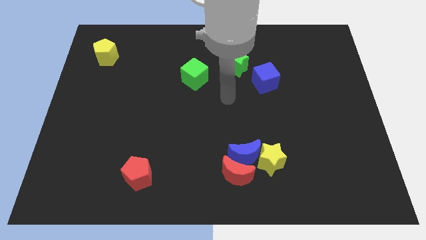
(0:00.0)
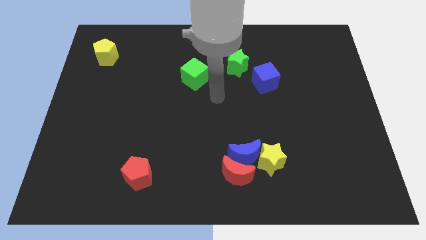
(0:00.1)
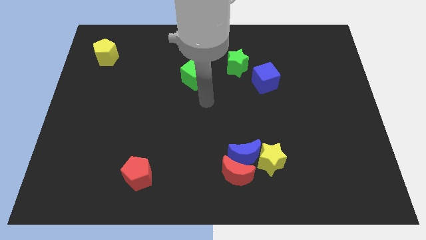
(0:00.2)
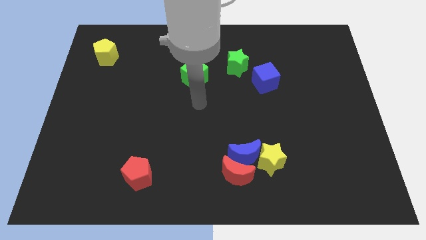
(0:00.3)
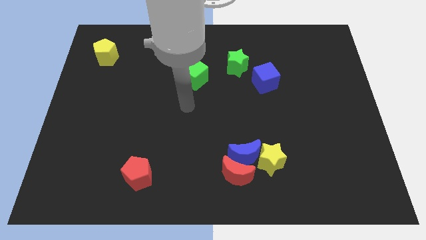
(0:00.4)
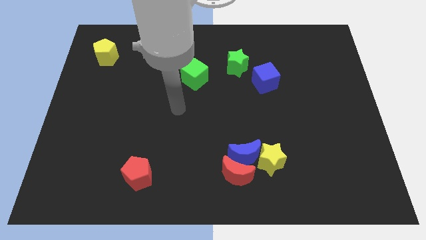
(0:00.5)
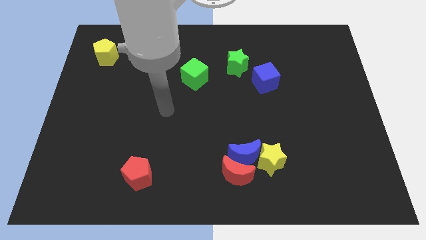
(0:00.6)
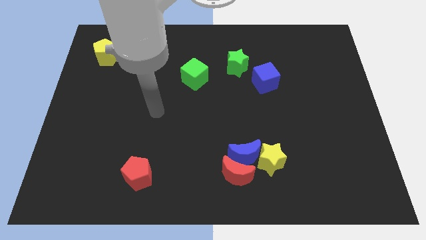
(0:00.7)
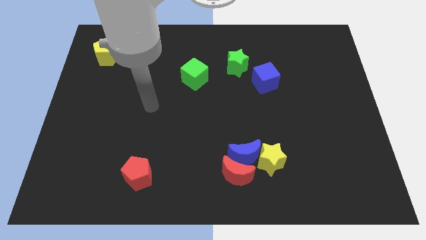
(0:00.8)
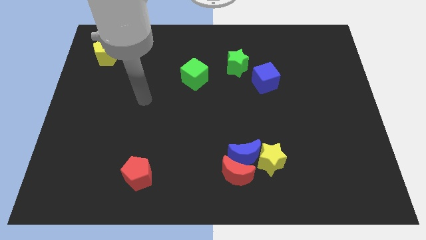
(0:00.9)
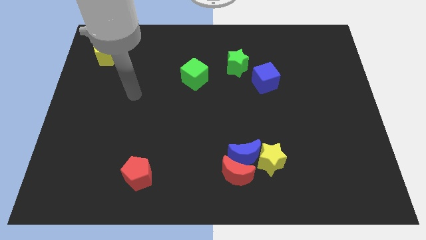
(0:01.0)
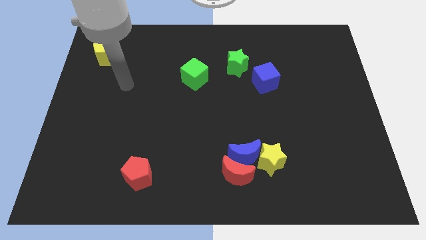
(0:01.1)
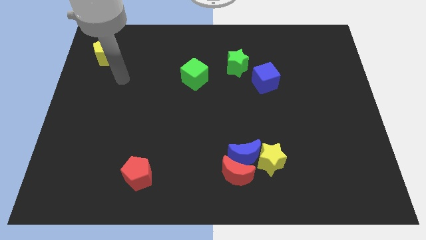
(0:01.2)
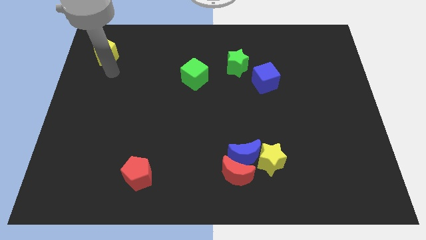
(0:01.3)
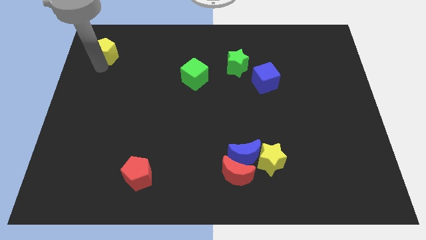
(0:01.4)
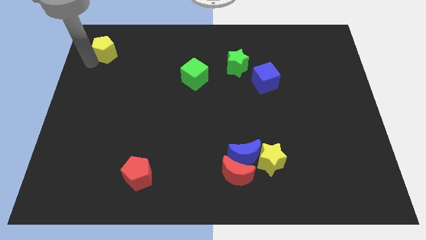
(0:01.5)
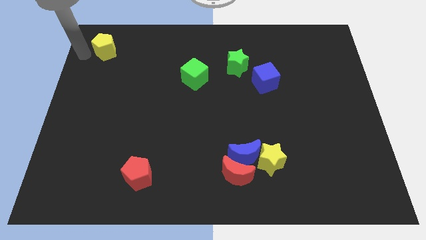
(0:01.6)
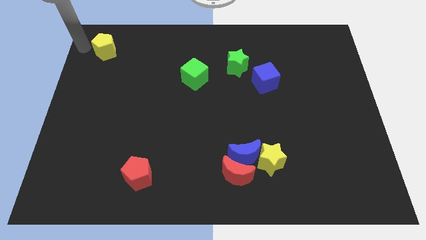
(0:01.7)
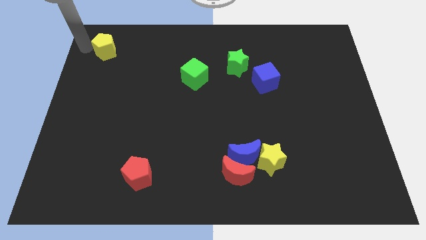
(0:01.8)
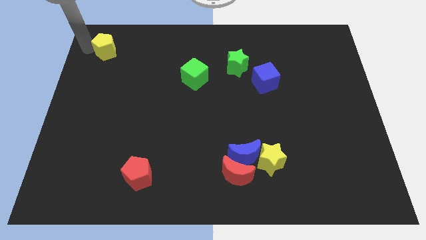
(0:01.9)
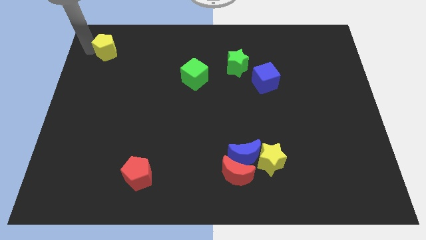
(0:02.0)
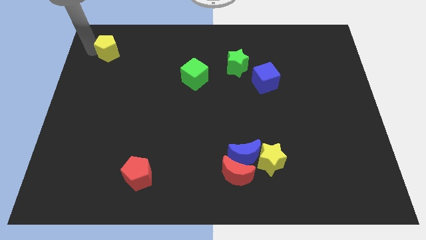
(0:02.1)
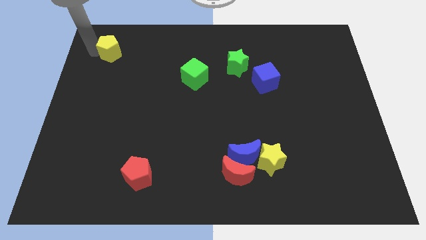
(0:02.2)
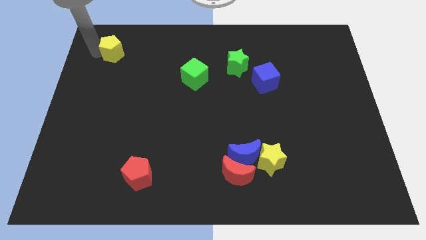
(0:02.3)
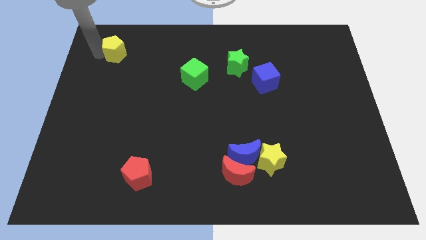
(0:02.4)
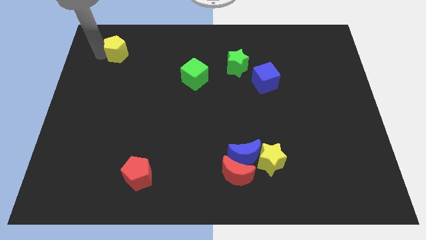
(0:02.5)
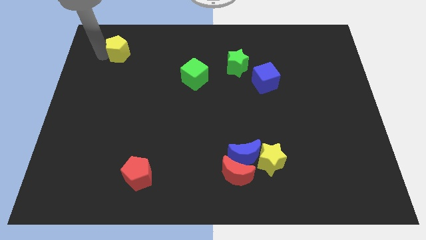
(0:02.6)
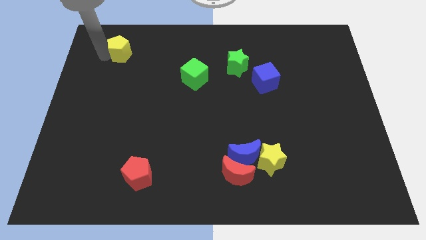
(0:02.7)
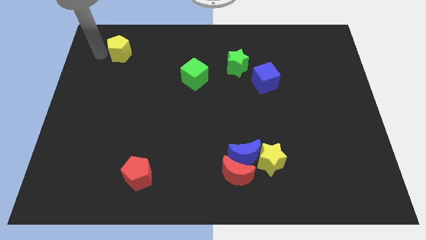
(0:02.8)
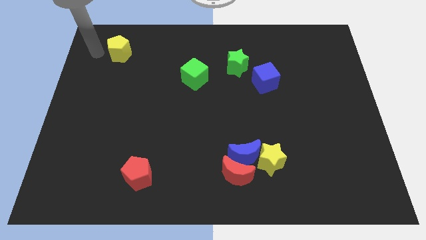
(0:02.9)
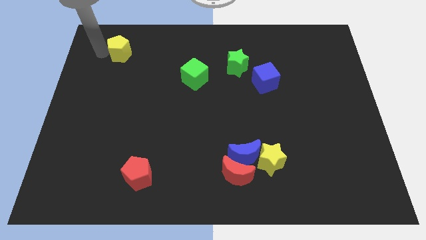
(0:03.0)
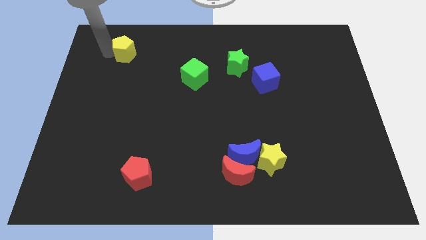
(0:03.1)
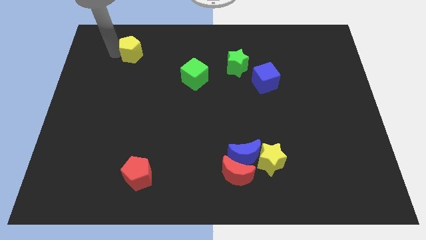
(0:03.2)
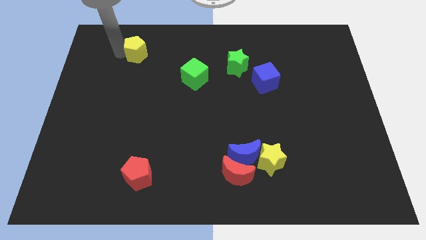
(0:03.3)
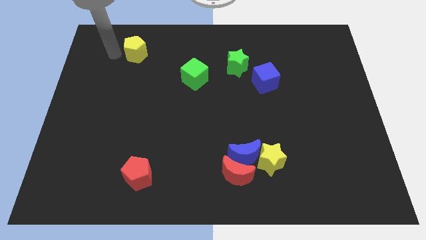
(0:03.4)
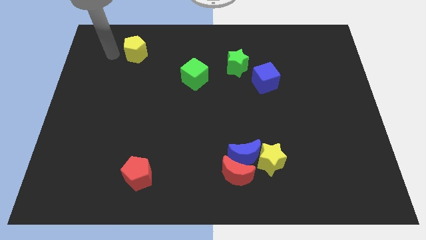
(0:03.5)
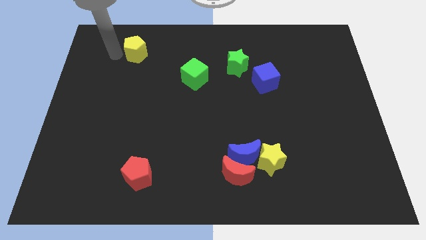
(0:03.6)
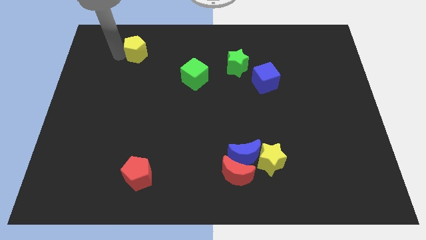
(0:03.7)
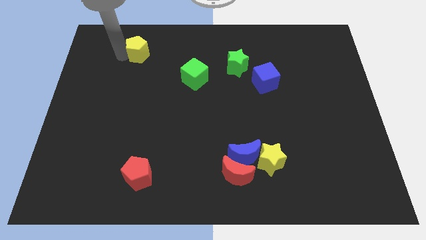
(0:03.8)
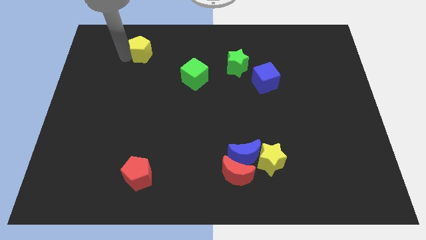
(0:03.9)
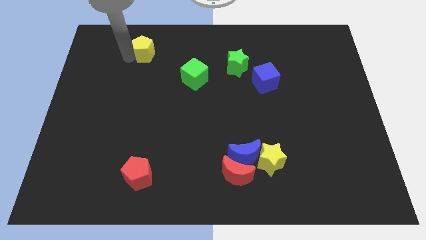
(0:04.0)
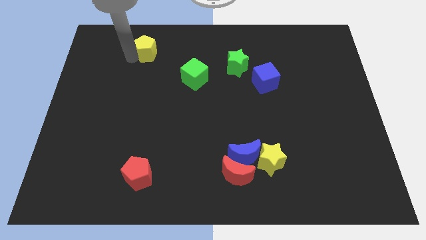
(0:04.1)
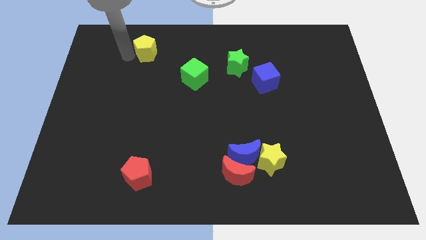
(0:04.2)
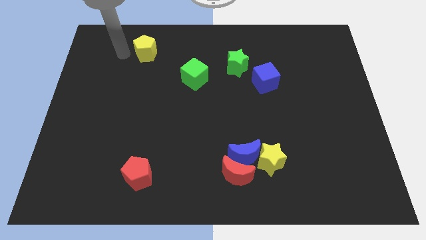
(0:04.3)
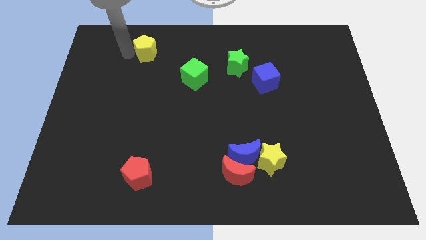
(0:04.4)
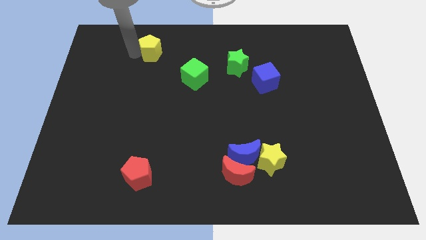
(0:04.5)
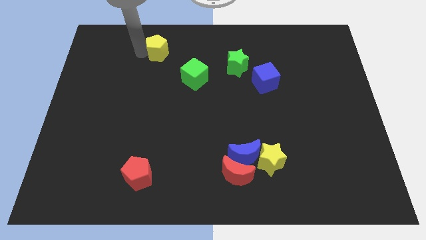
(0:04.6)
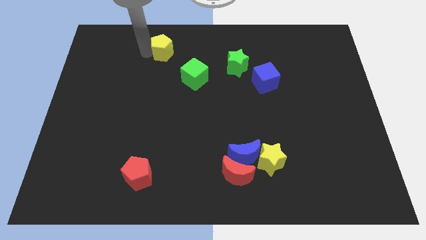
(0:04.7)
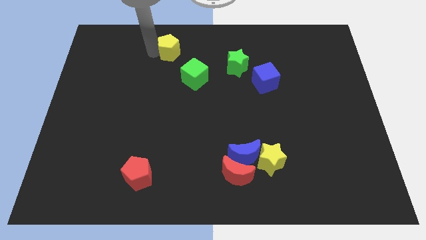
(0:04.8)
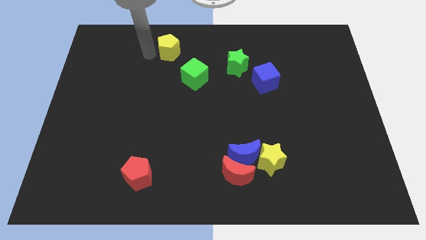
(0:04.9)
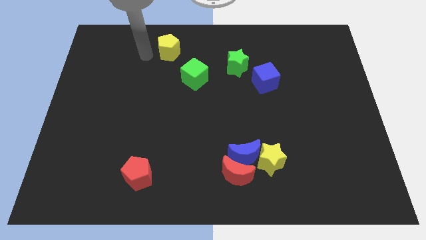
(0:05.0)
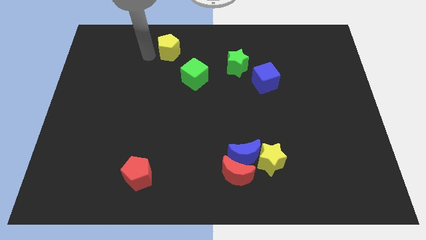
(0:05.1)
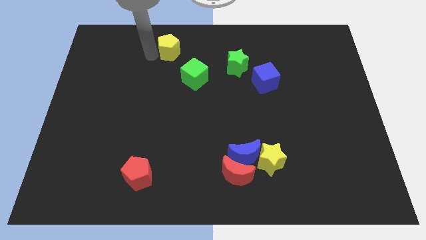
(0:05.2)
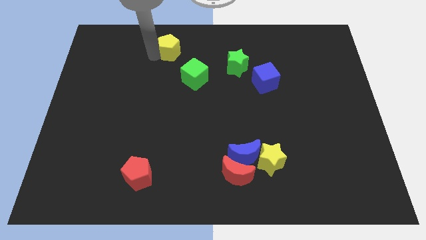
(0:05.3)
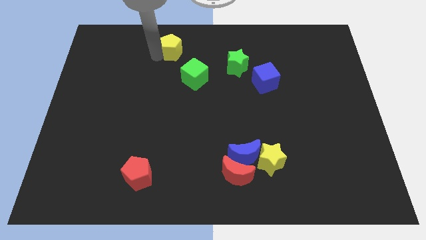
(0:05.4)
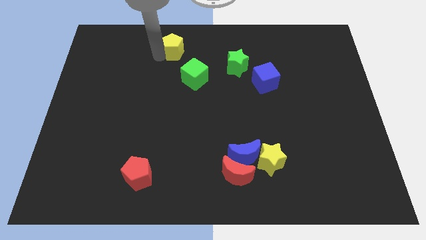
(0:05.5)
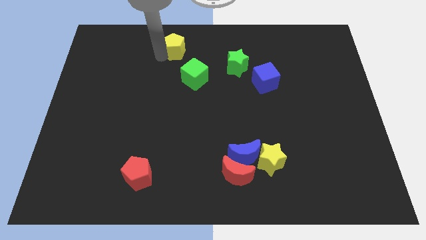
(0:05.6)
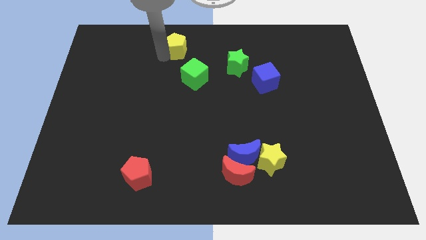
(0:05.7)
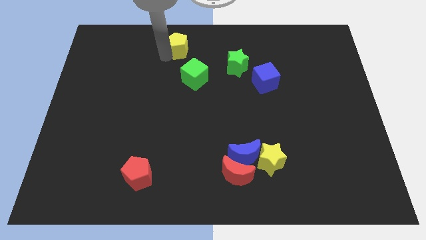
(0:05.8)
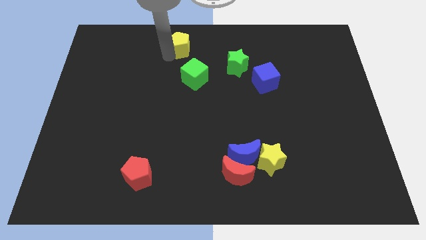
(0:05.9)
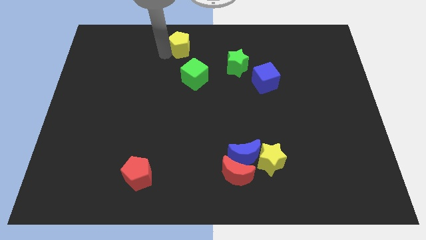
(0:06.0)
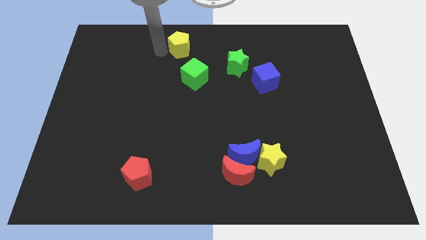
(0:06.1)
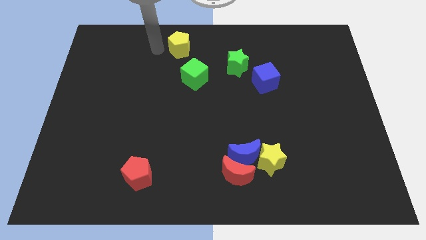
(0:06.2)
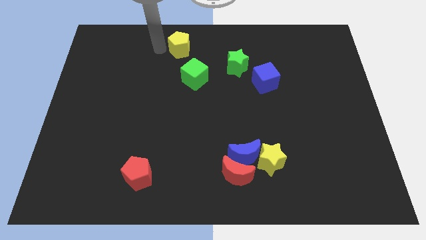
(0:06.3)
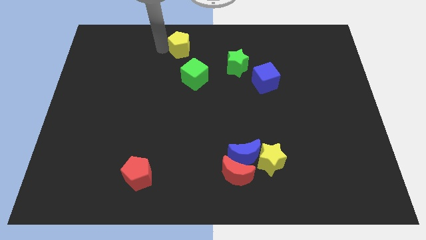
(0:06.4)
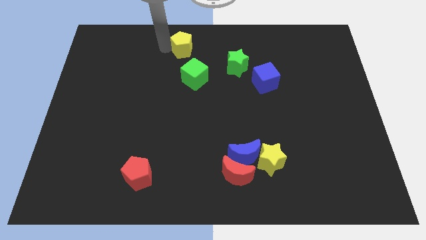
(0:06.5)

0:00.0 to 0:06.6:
push the yellow pentagon right

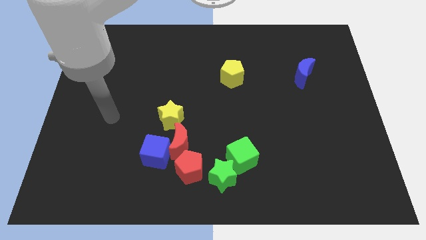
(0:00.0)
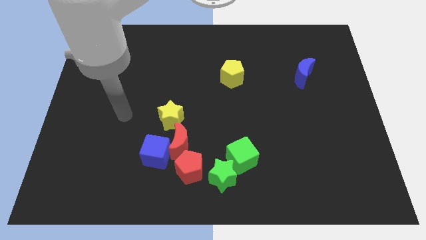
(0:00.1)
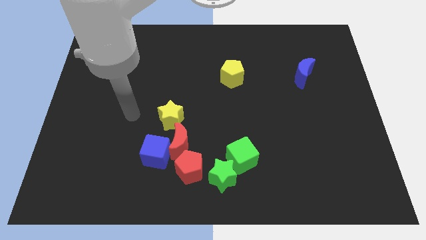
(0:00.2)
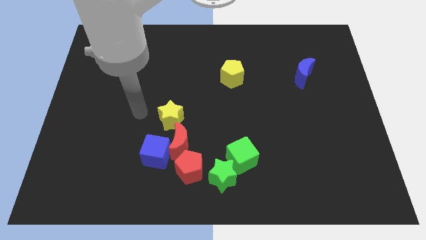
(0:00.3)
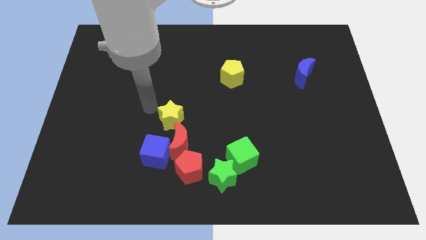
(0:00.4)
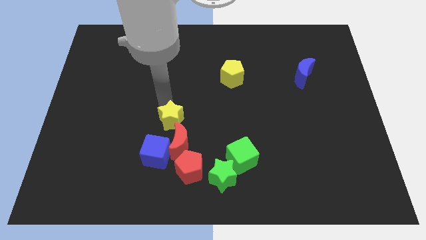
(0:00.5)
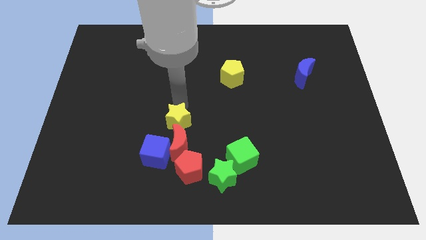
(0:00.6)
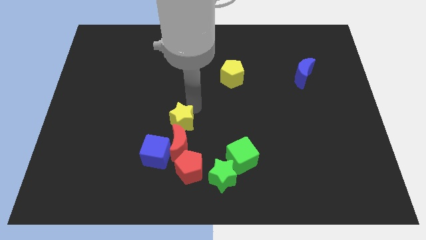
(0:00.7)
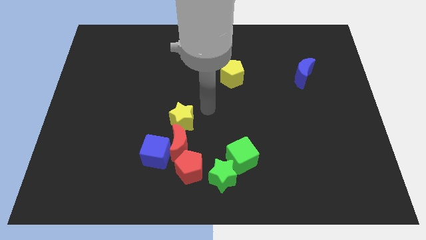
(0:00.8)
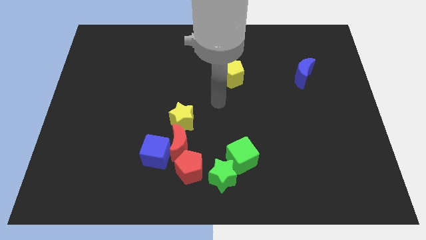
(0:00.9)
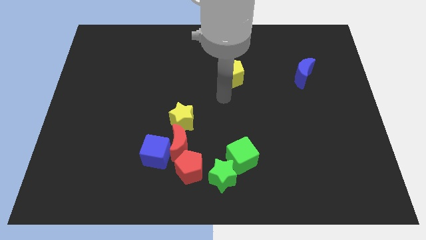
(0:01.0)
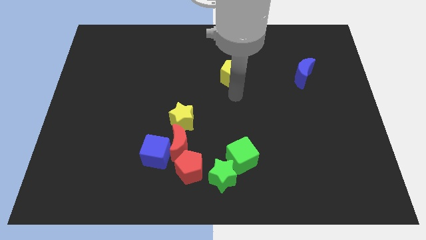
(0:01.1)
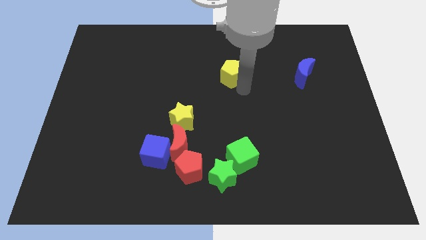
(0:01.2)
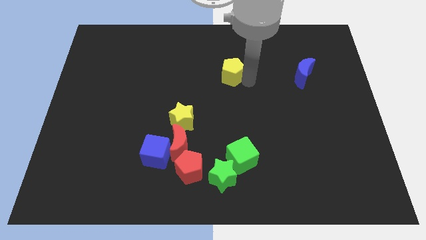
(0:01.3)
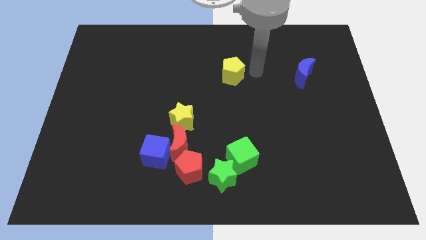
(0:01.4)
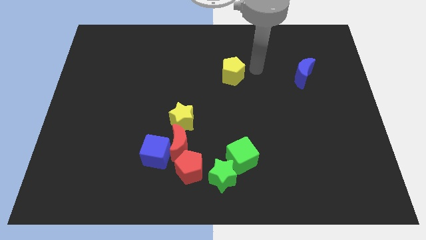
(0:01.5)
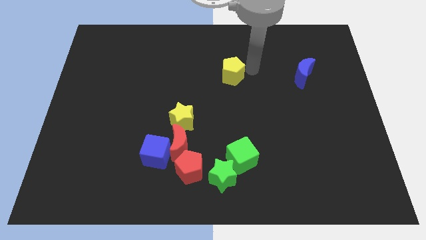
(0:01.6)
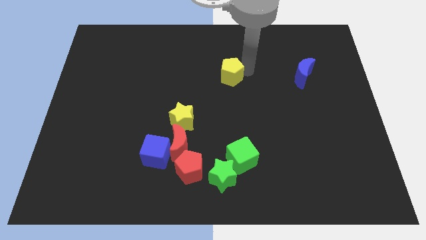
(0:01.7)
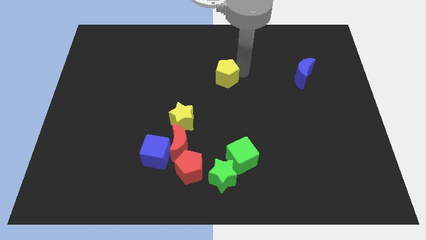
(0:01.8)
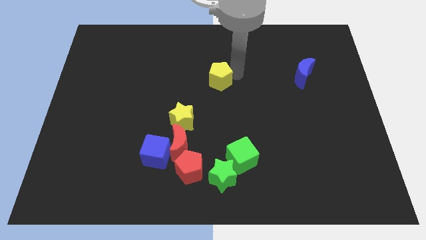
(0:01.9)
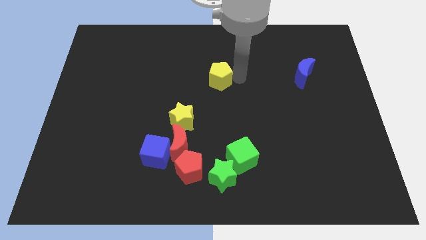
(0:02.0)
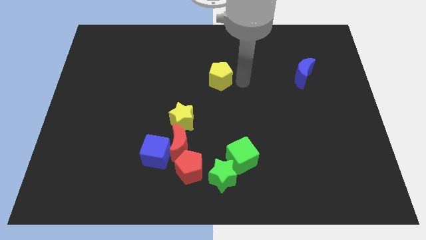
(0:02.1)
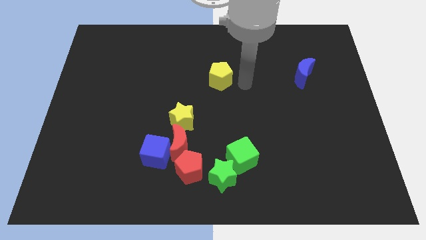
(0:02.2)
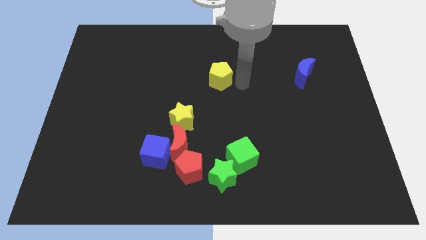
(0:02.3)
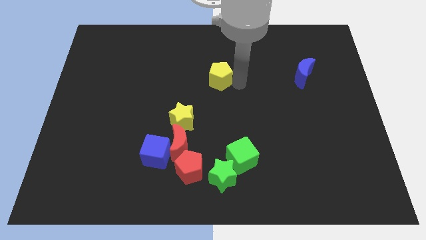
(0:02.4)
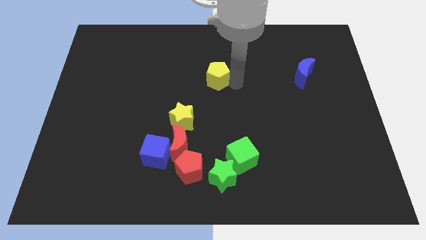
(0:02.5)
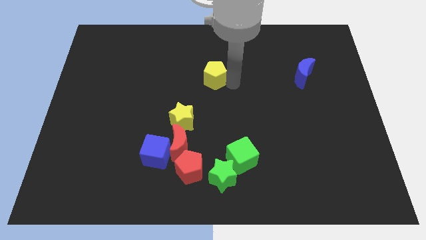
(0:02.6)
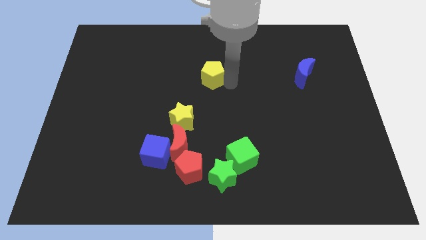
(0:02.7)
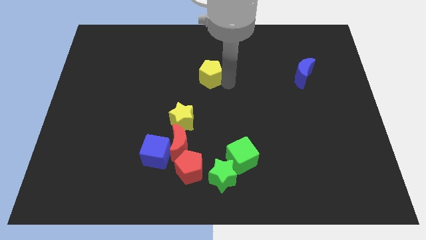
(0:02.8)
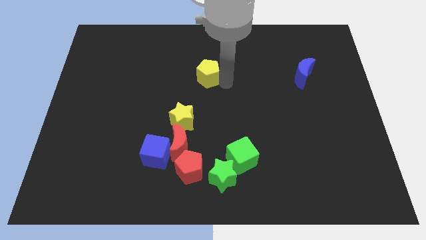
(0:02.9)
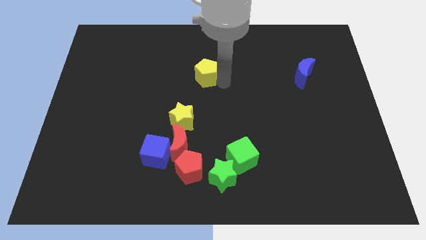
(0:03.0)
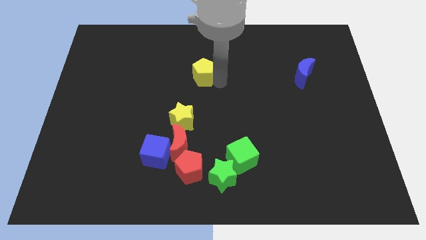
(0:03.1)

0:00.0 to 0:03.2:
slightly move the yellow pentagon left
